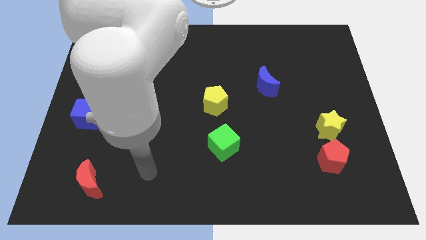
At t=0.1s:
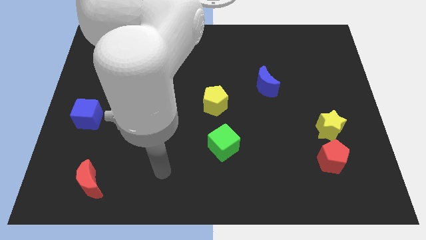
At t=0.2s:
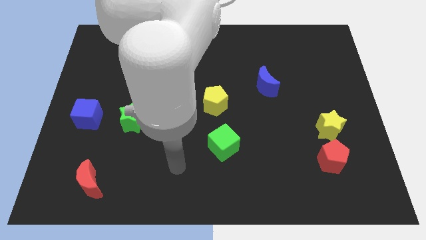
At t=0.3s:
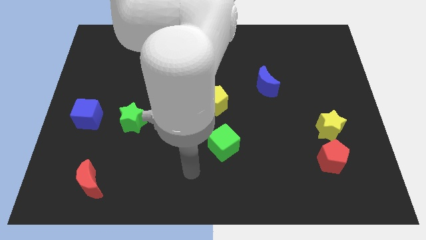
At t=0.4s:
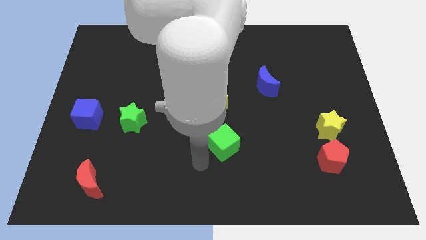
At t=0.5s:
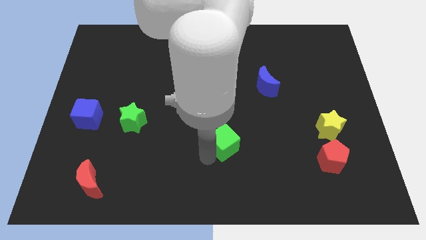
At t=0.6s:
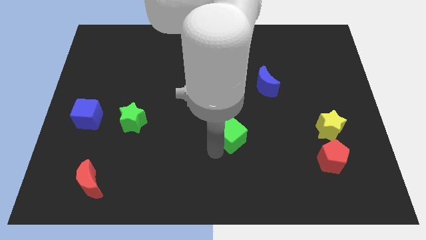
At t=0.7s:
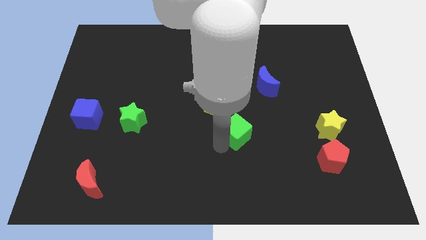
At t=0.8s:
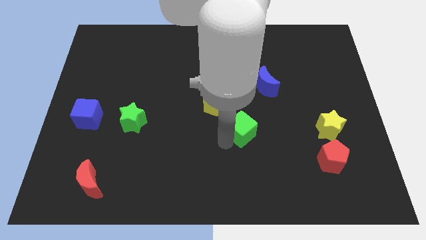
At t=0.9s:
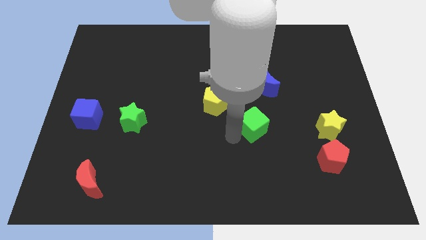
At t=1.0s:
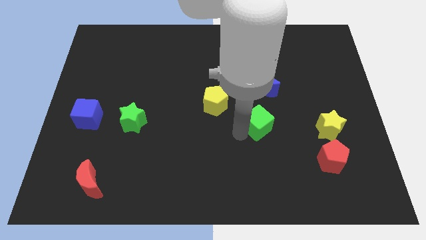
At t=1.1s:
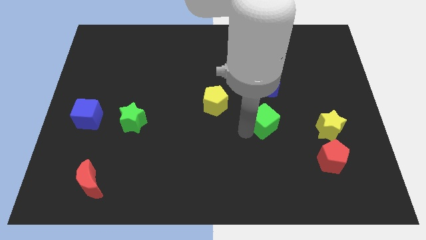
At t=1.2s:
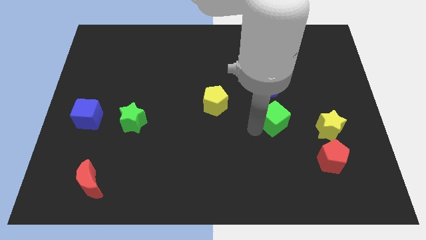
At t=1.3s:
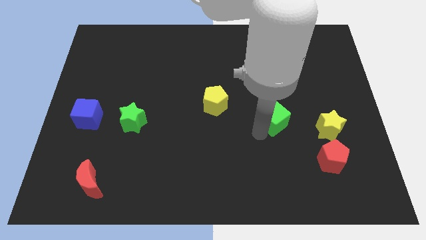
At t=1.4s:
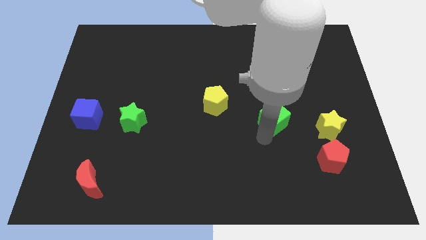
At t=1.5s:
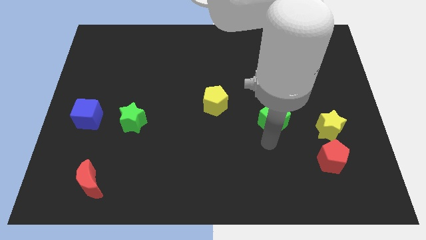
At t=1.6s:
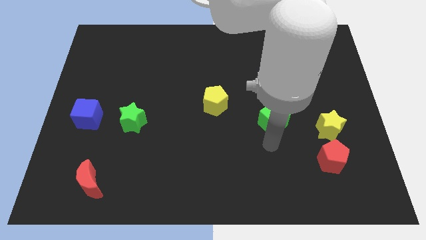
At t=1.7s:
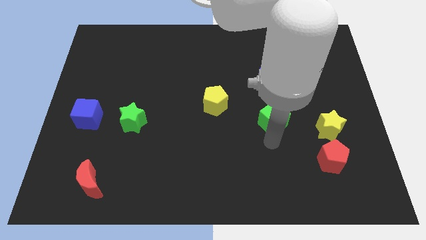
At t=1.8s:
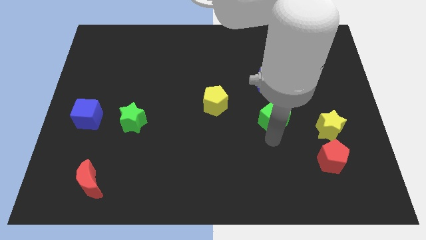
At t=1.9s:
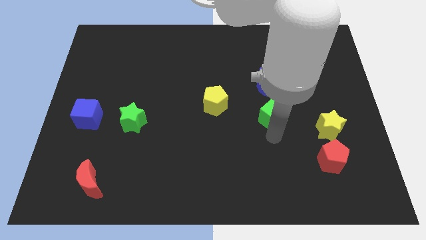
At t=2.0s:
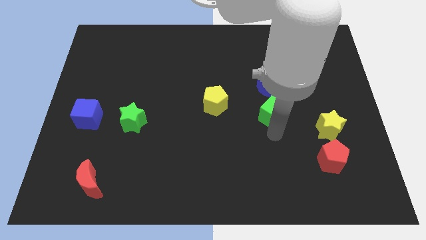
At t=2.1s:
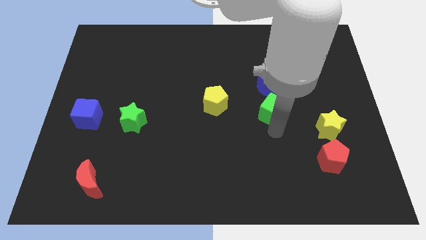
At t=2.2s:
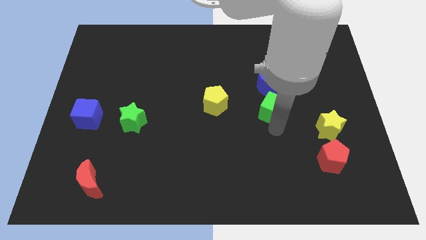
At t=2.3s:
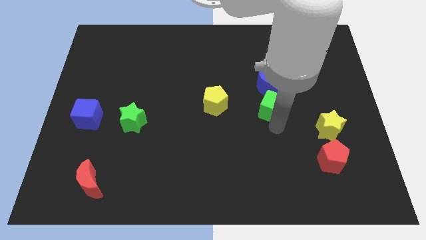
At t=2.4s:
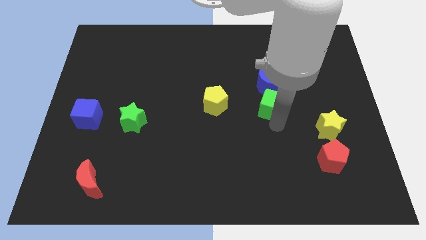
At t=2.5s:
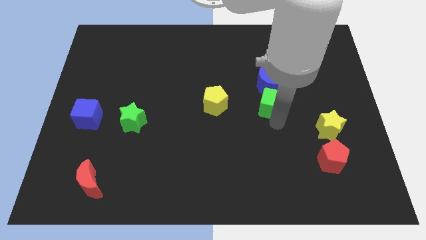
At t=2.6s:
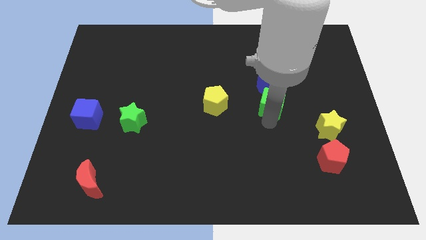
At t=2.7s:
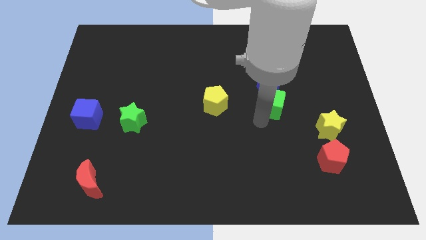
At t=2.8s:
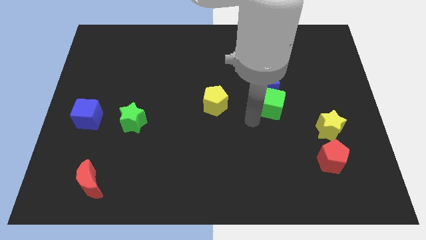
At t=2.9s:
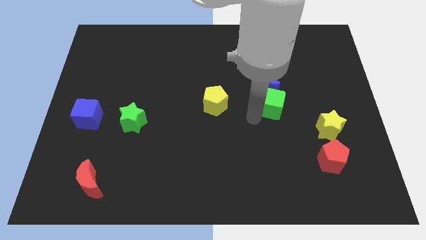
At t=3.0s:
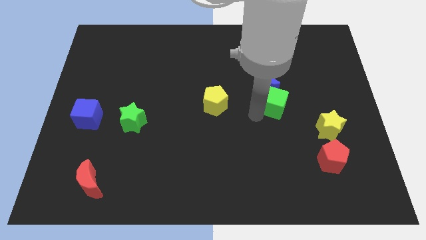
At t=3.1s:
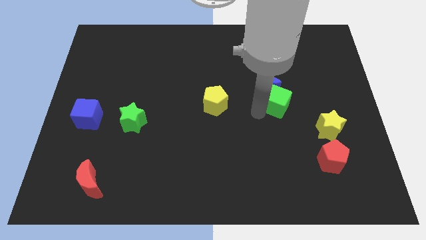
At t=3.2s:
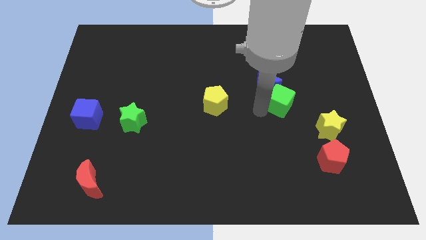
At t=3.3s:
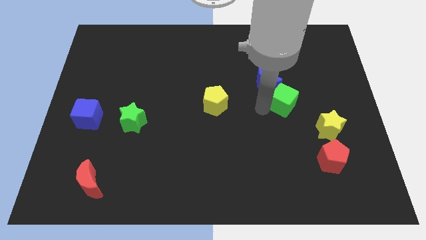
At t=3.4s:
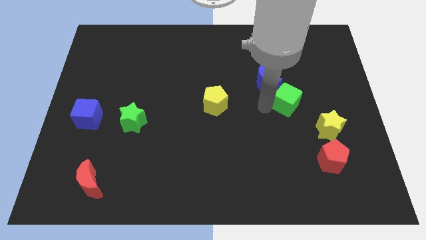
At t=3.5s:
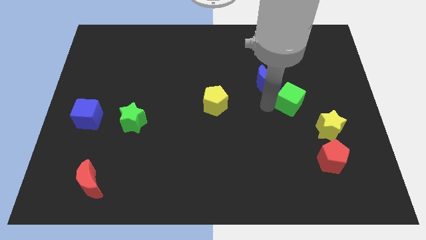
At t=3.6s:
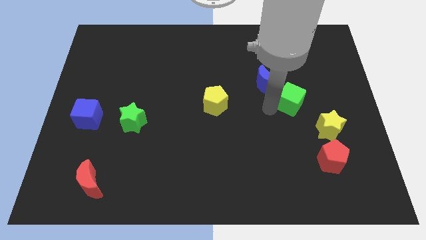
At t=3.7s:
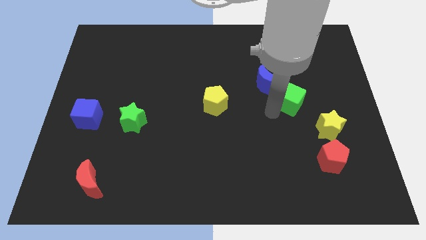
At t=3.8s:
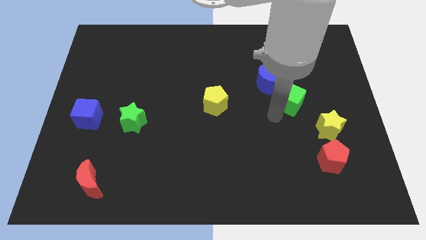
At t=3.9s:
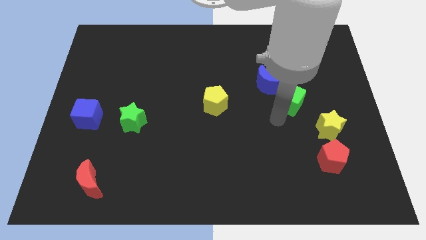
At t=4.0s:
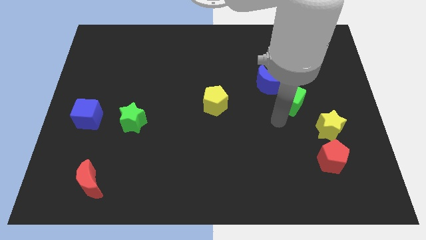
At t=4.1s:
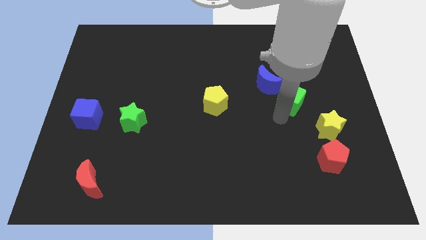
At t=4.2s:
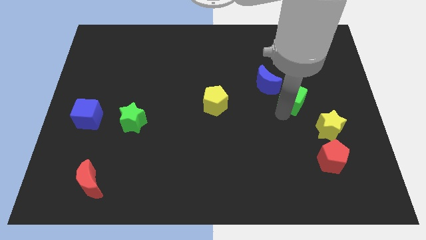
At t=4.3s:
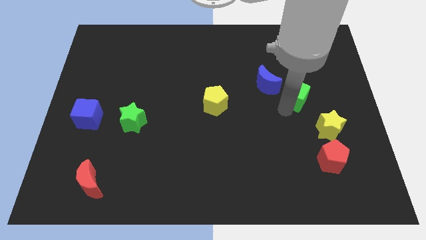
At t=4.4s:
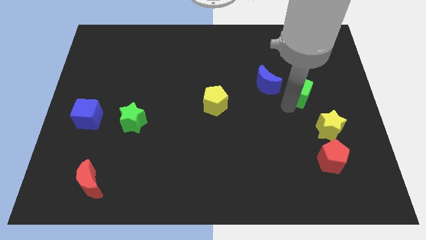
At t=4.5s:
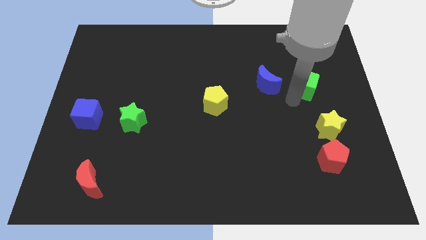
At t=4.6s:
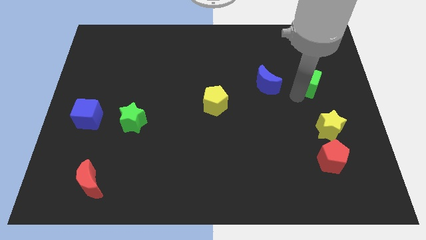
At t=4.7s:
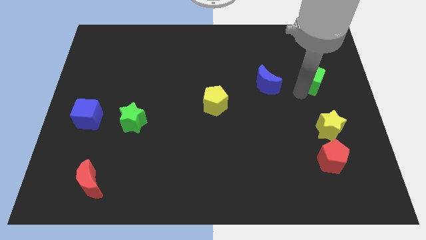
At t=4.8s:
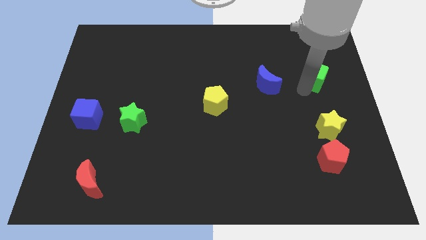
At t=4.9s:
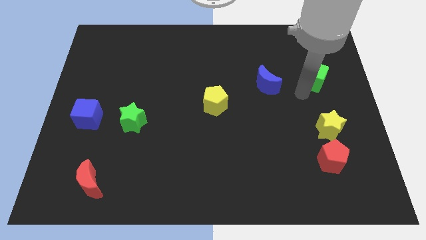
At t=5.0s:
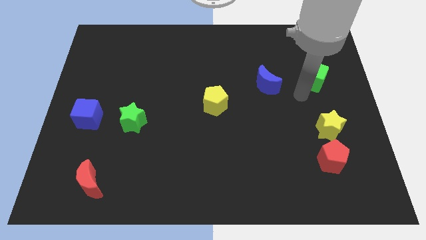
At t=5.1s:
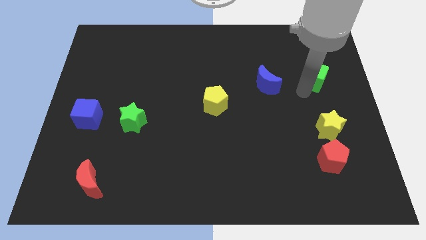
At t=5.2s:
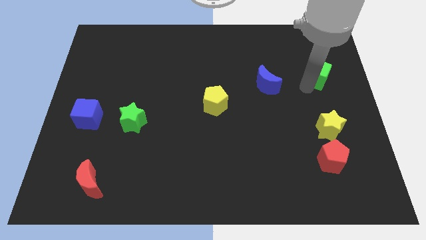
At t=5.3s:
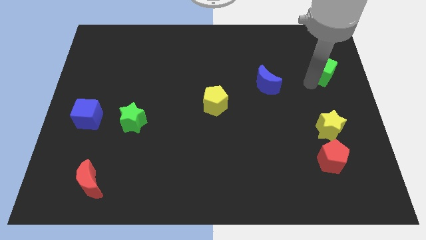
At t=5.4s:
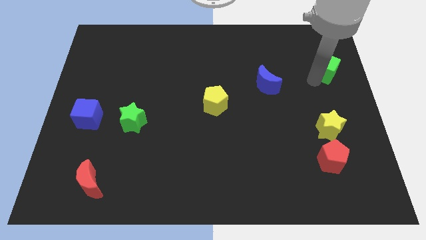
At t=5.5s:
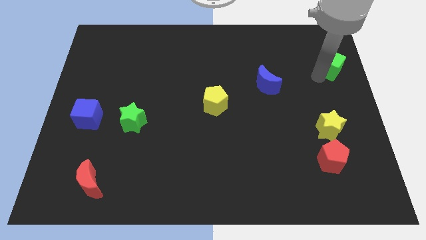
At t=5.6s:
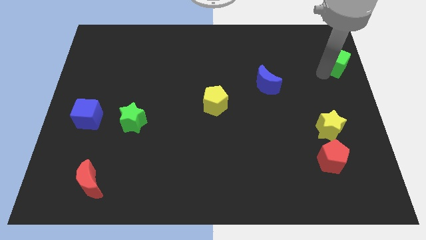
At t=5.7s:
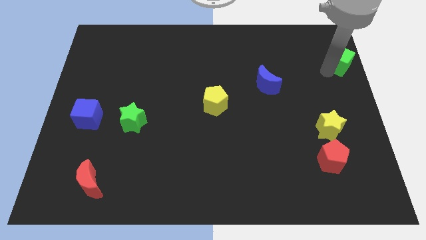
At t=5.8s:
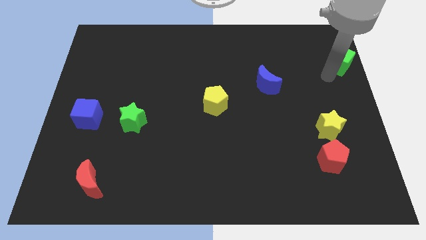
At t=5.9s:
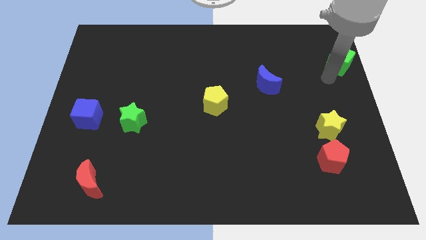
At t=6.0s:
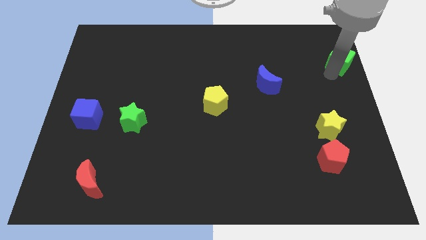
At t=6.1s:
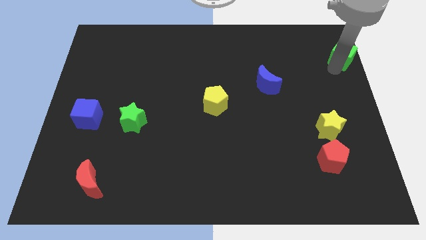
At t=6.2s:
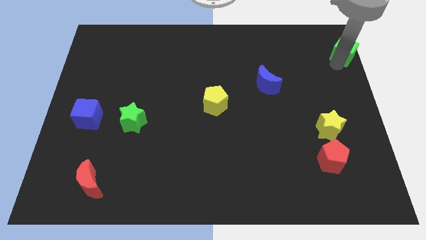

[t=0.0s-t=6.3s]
slide the green cube to the top right corner
